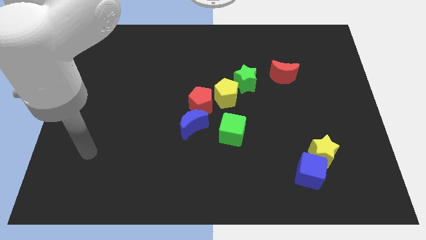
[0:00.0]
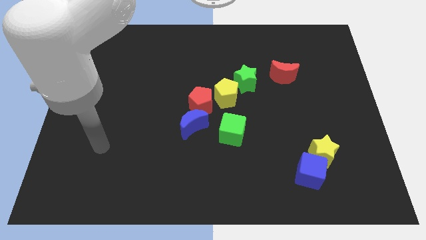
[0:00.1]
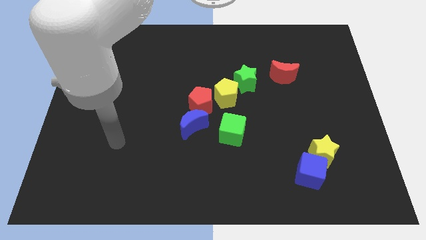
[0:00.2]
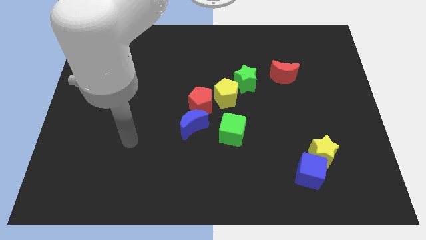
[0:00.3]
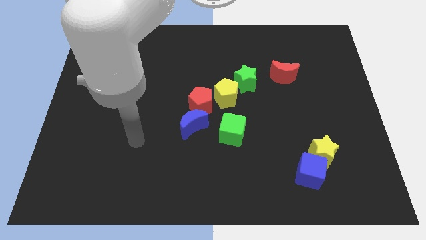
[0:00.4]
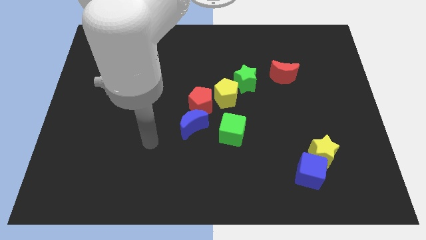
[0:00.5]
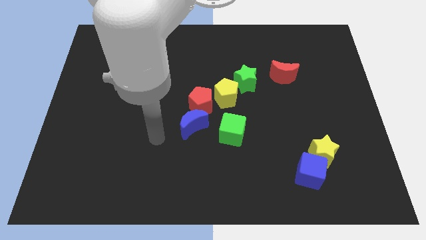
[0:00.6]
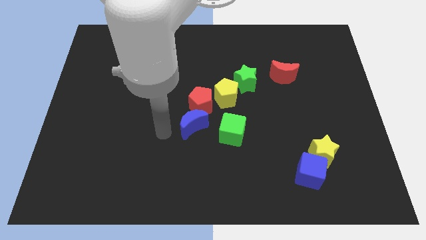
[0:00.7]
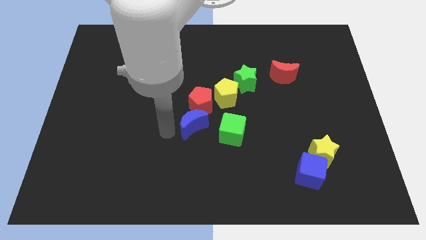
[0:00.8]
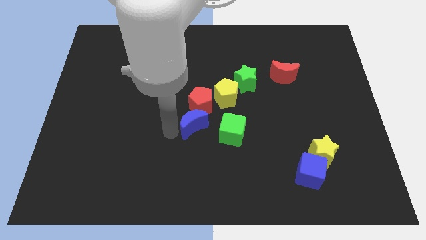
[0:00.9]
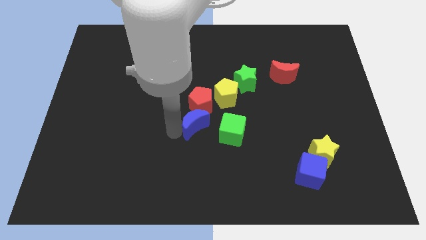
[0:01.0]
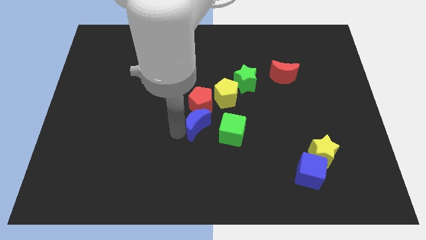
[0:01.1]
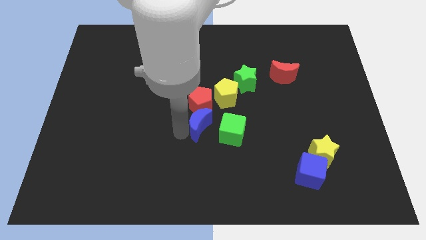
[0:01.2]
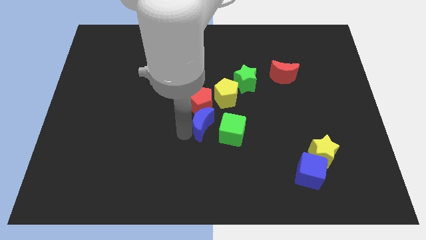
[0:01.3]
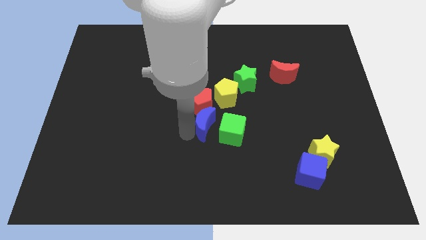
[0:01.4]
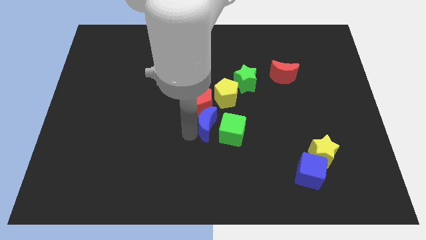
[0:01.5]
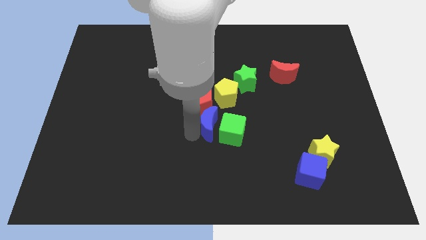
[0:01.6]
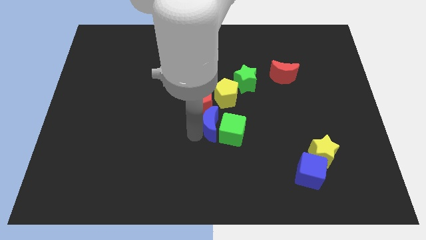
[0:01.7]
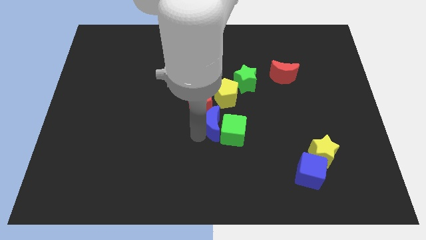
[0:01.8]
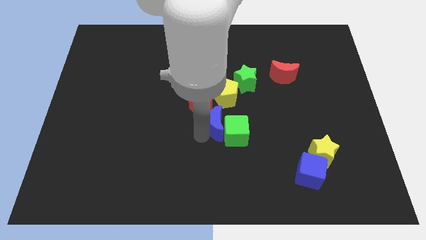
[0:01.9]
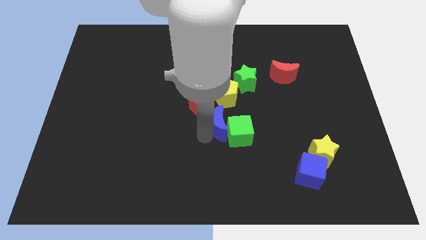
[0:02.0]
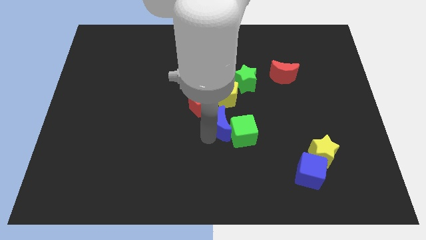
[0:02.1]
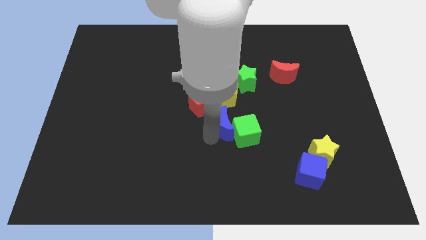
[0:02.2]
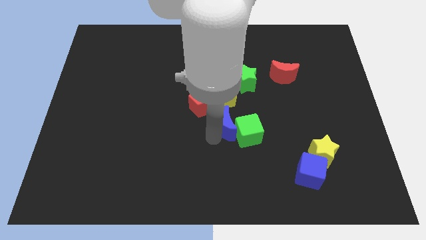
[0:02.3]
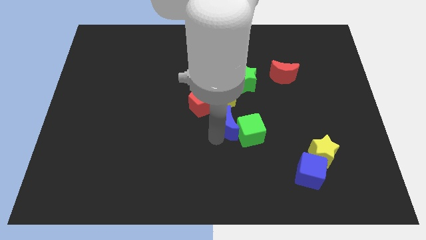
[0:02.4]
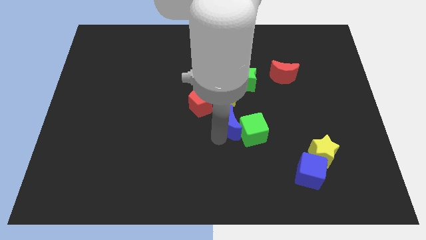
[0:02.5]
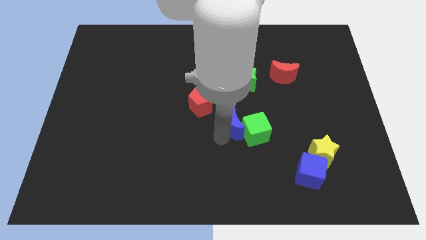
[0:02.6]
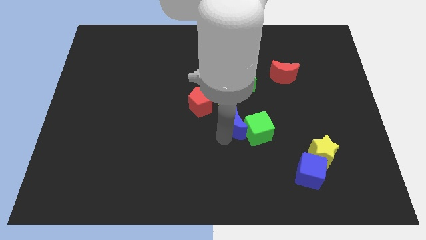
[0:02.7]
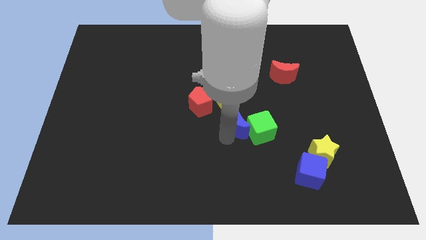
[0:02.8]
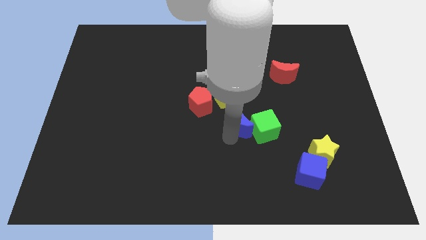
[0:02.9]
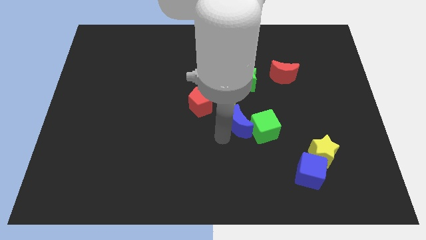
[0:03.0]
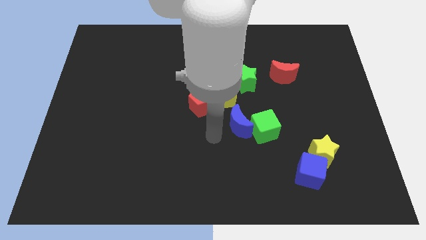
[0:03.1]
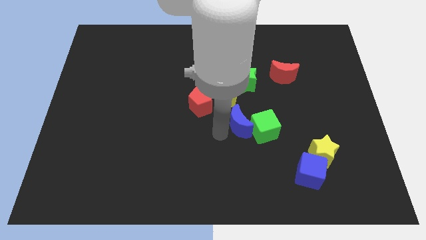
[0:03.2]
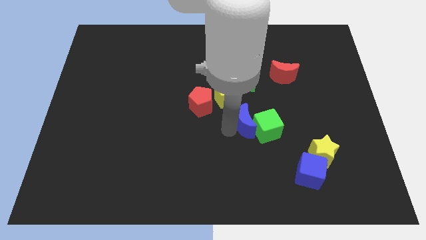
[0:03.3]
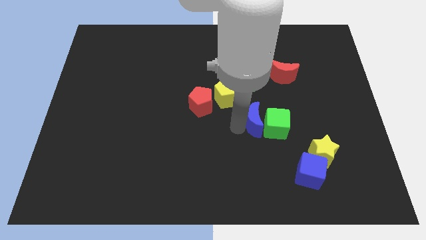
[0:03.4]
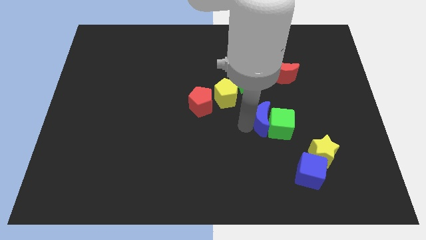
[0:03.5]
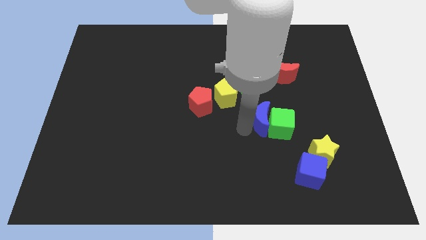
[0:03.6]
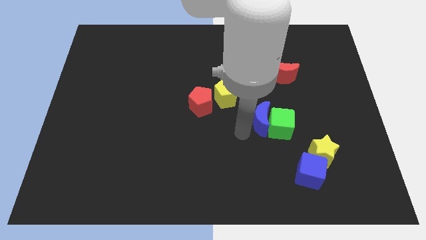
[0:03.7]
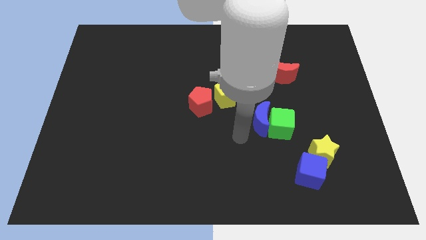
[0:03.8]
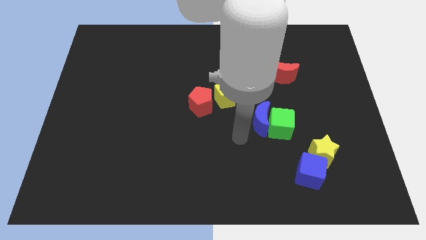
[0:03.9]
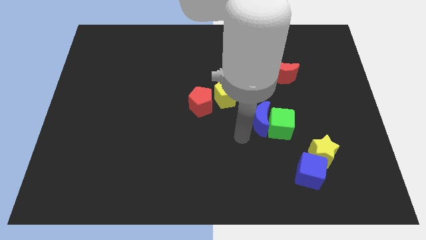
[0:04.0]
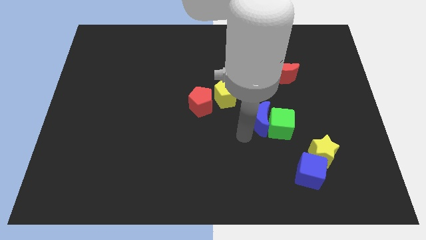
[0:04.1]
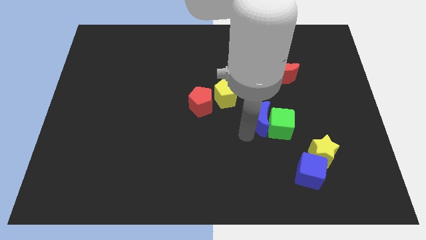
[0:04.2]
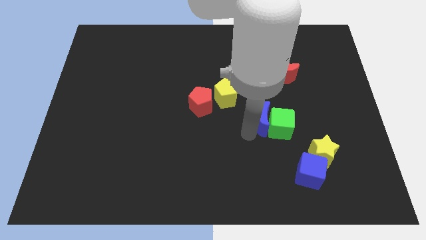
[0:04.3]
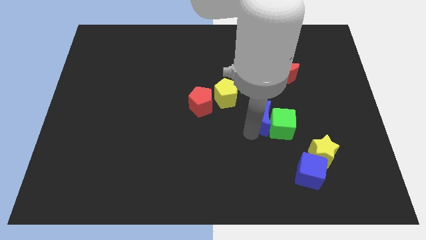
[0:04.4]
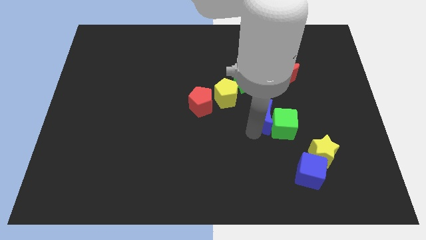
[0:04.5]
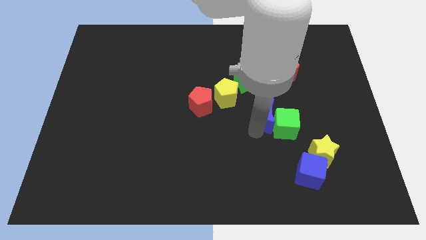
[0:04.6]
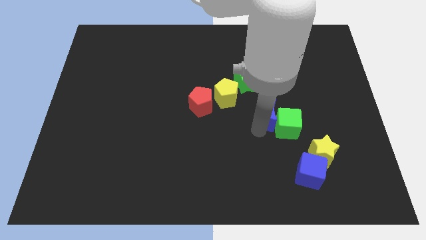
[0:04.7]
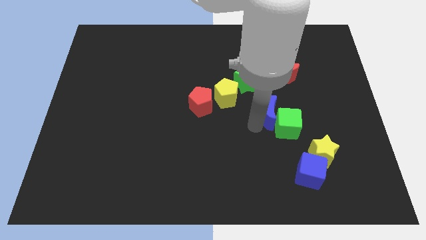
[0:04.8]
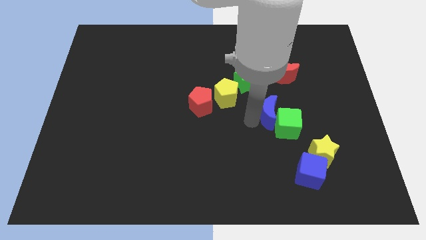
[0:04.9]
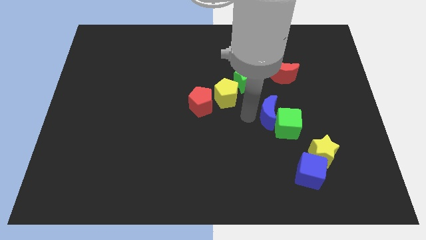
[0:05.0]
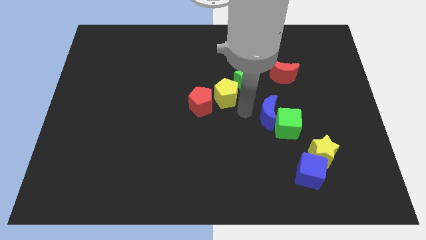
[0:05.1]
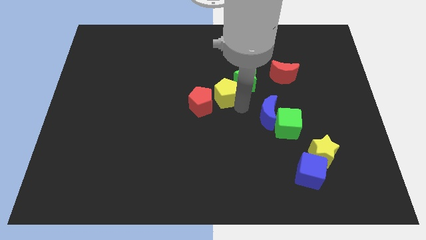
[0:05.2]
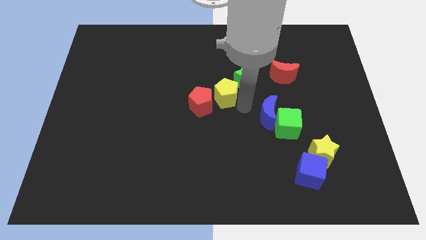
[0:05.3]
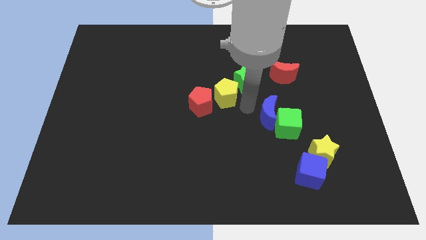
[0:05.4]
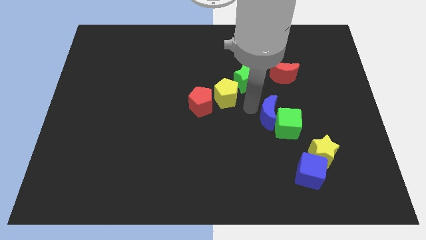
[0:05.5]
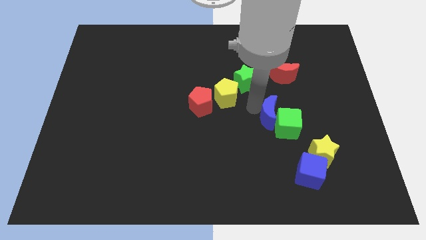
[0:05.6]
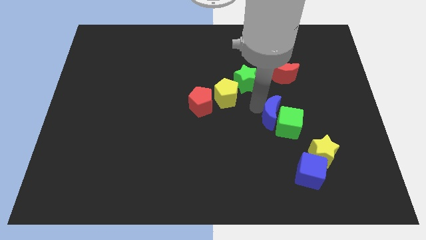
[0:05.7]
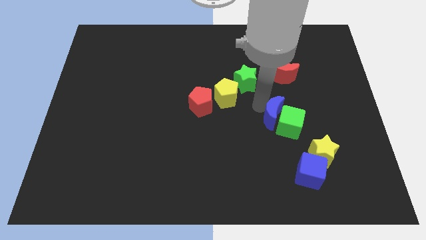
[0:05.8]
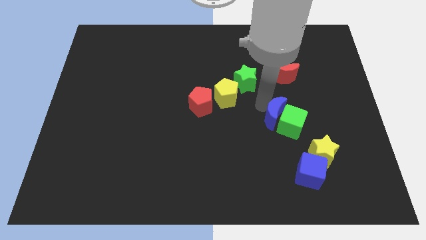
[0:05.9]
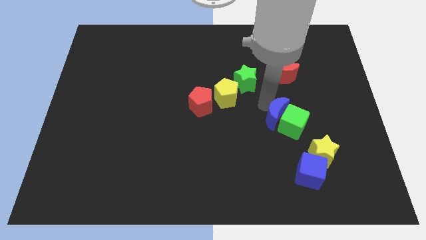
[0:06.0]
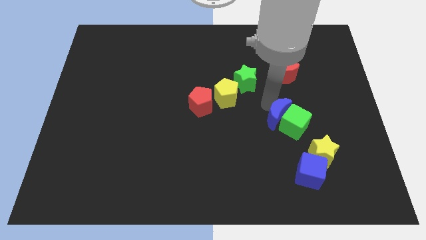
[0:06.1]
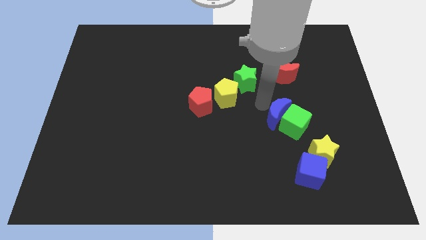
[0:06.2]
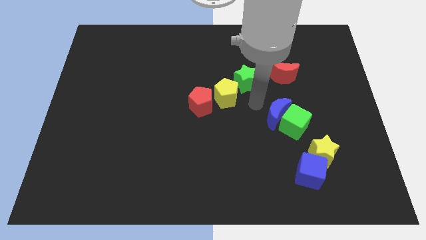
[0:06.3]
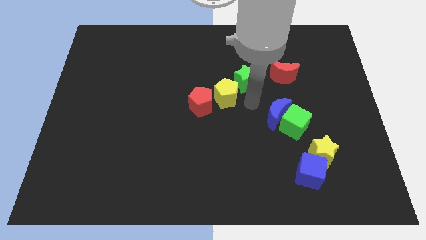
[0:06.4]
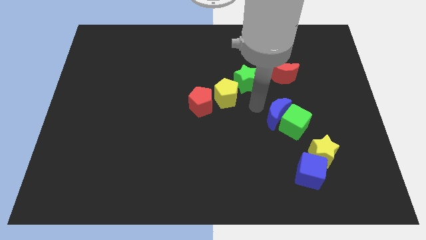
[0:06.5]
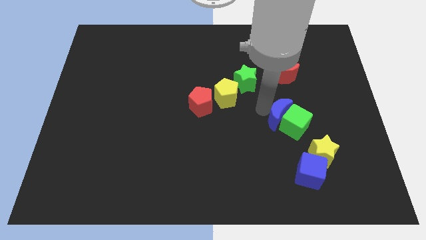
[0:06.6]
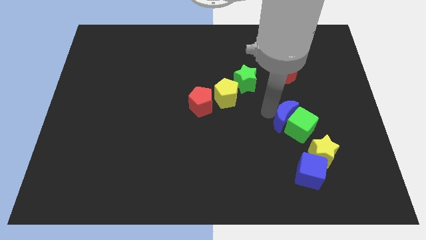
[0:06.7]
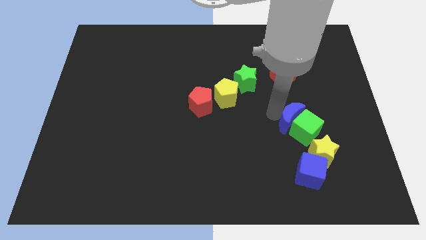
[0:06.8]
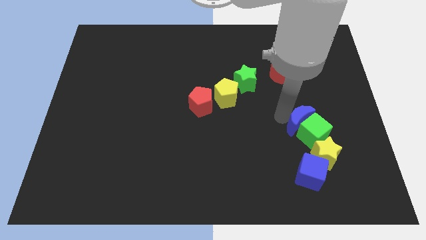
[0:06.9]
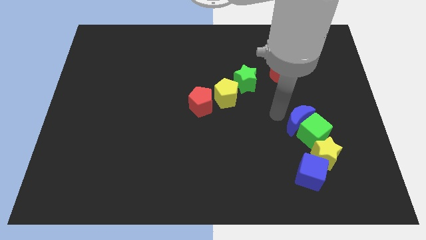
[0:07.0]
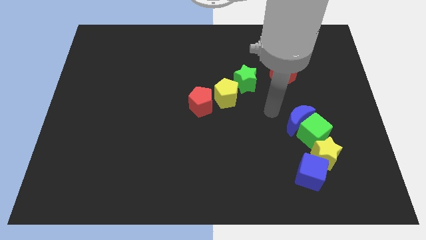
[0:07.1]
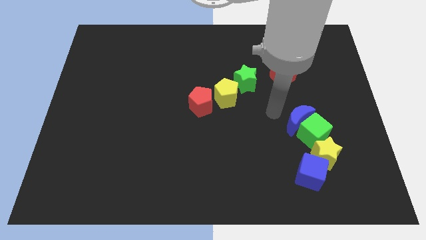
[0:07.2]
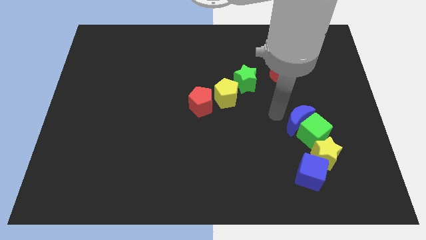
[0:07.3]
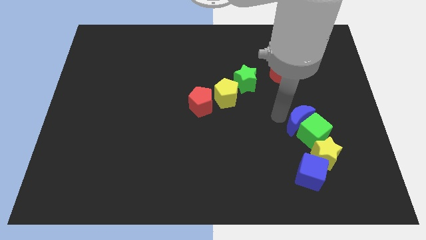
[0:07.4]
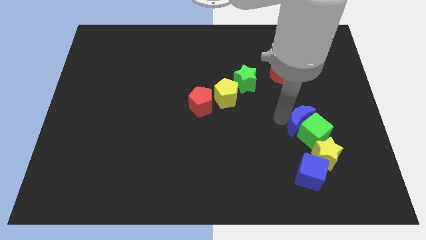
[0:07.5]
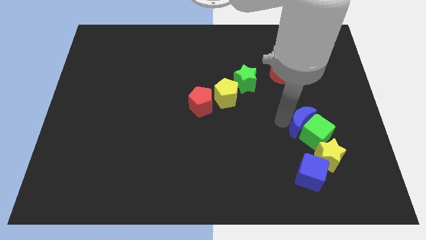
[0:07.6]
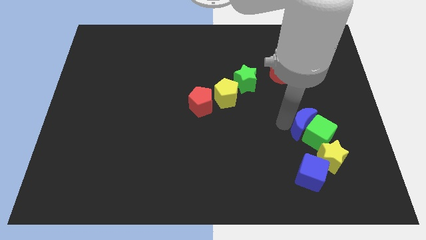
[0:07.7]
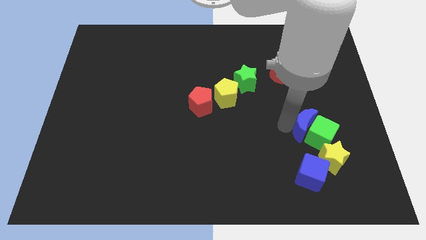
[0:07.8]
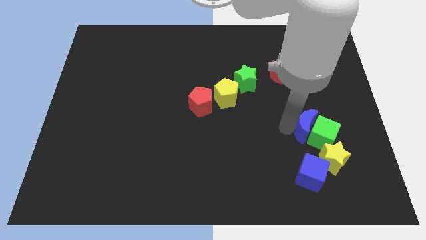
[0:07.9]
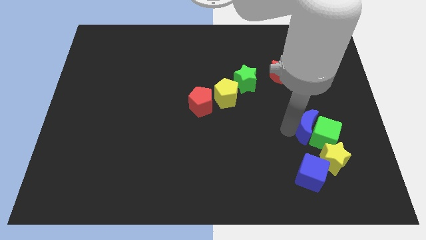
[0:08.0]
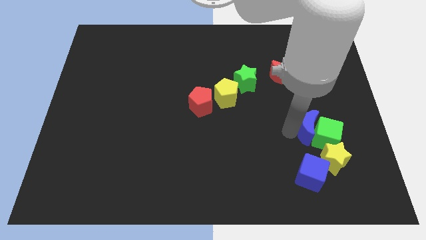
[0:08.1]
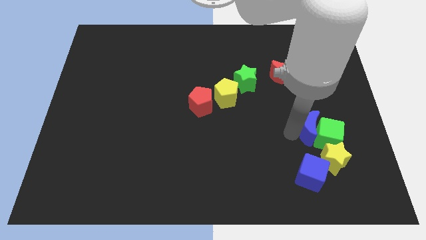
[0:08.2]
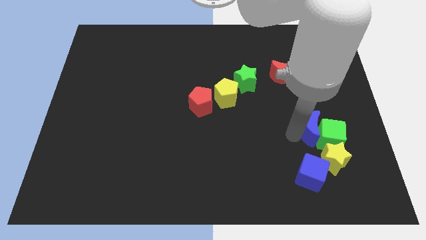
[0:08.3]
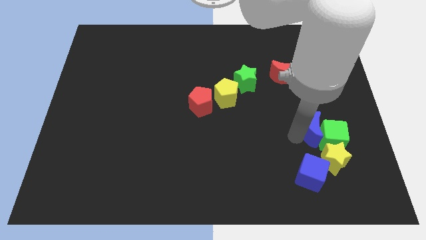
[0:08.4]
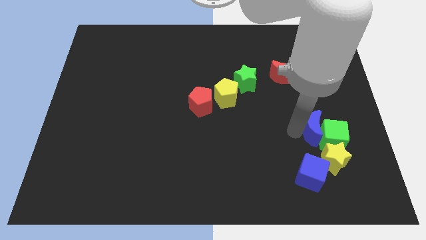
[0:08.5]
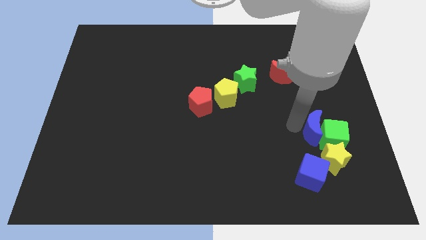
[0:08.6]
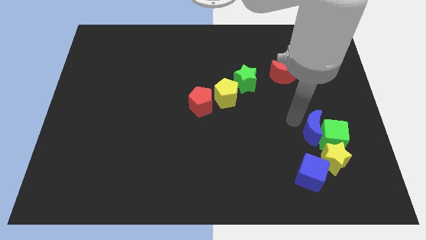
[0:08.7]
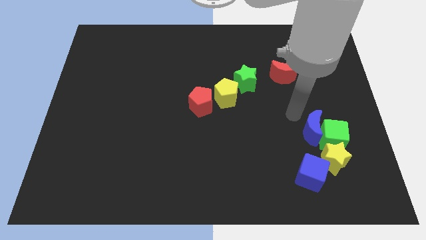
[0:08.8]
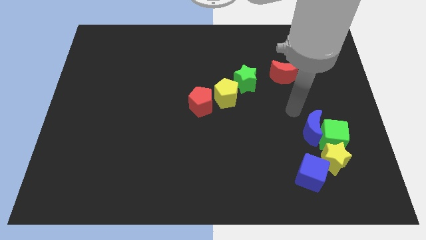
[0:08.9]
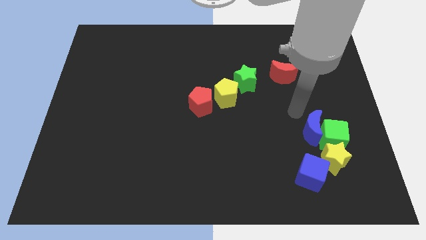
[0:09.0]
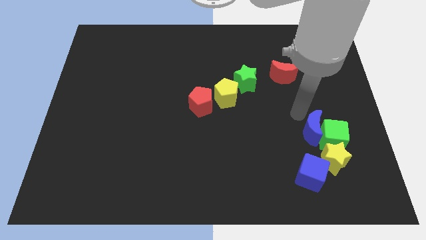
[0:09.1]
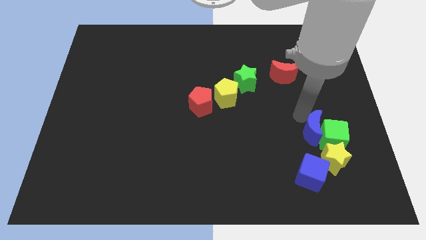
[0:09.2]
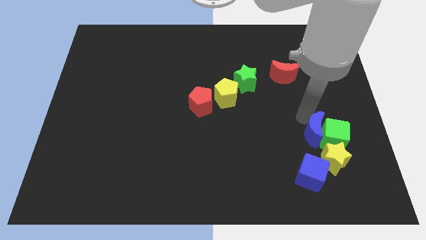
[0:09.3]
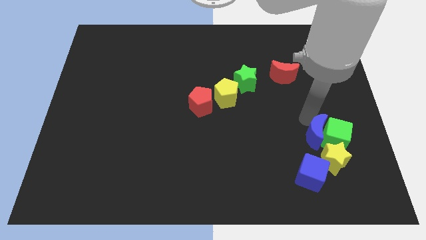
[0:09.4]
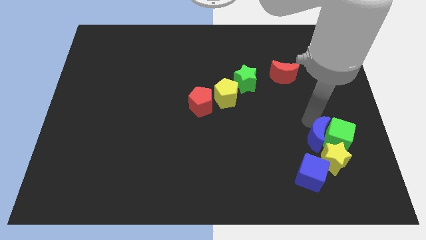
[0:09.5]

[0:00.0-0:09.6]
put the blue moon diagonally up and to the right of the blue cube
